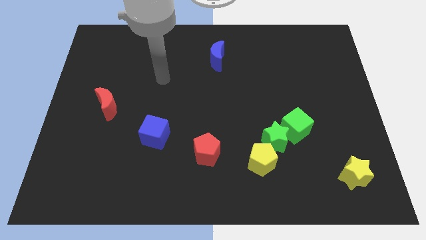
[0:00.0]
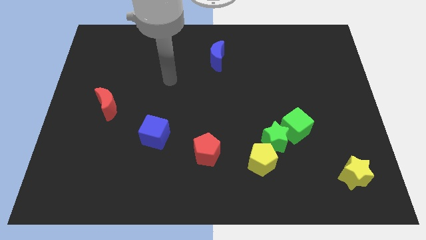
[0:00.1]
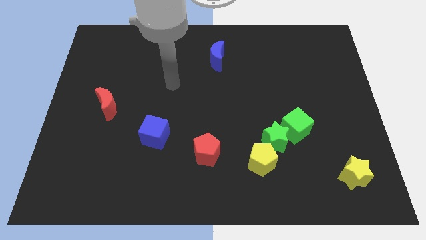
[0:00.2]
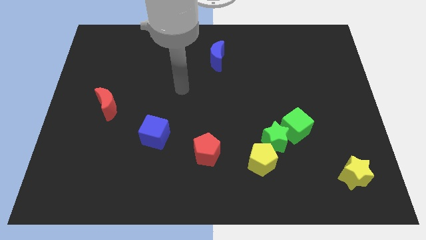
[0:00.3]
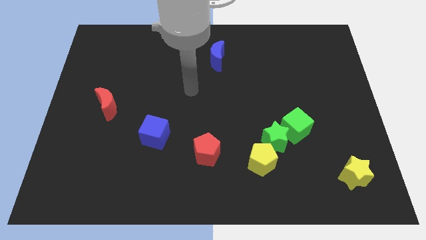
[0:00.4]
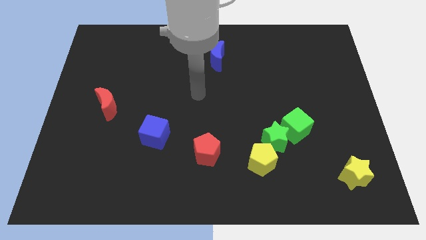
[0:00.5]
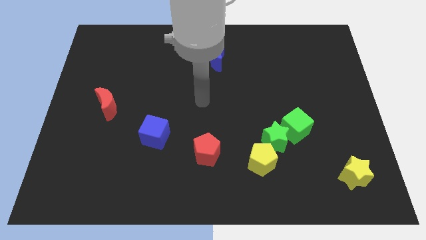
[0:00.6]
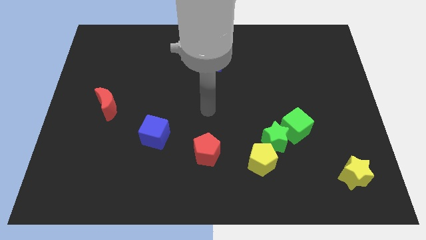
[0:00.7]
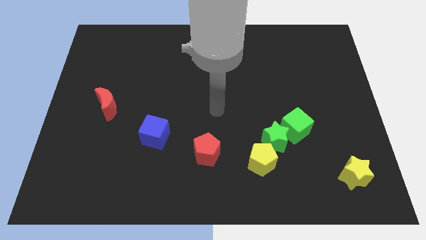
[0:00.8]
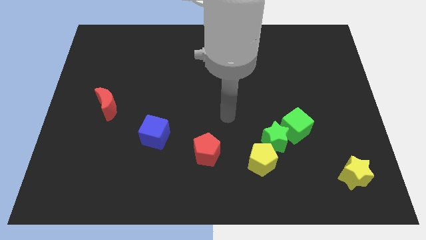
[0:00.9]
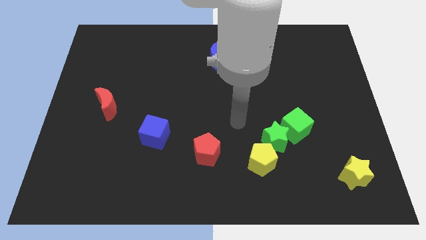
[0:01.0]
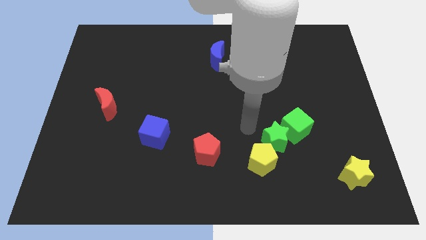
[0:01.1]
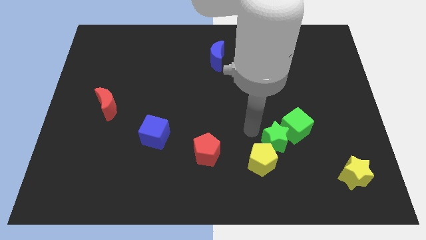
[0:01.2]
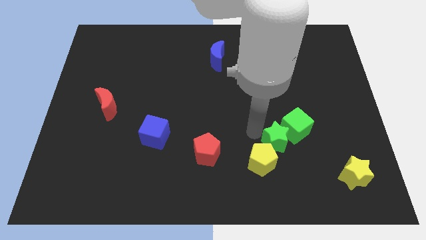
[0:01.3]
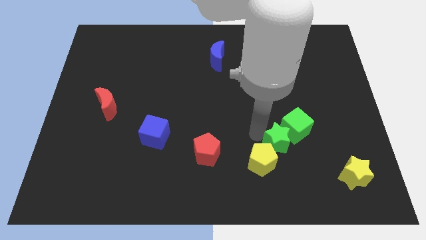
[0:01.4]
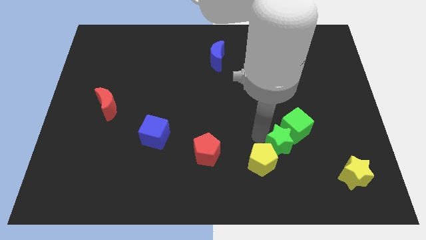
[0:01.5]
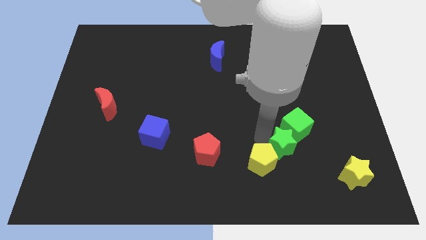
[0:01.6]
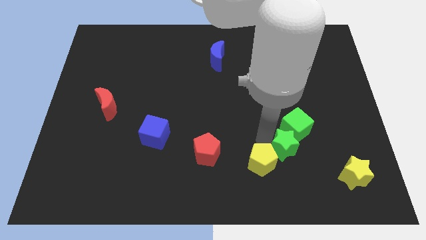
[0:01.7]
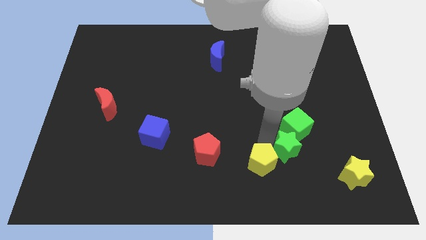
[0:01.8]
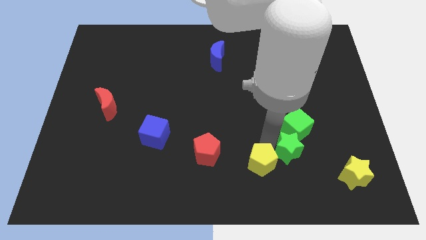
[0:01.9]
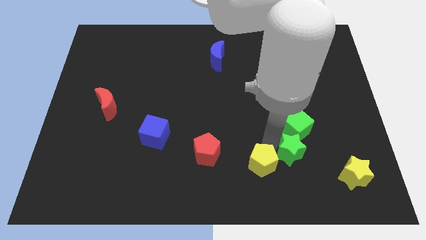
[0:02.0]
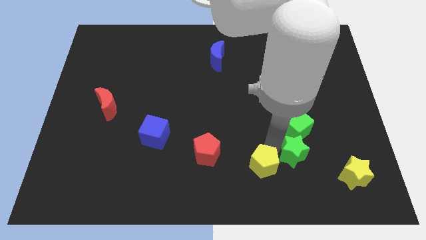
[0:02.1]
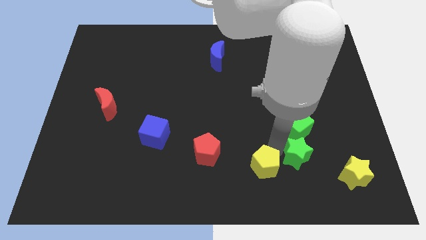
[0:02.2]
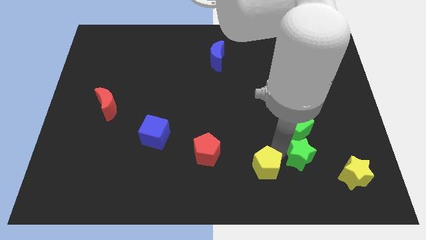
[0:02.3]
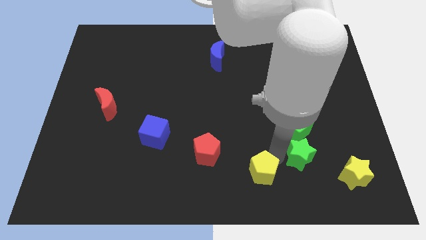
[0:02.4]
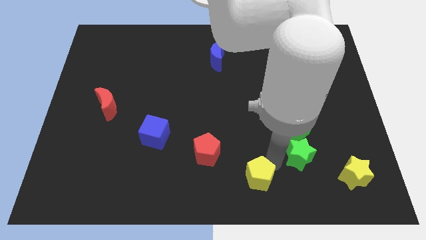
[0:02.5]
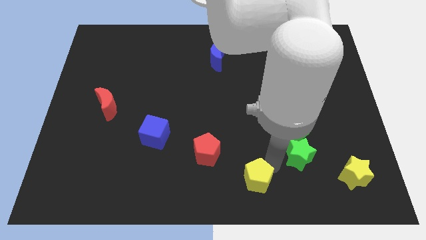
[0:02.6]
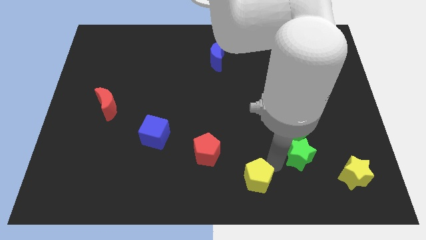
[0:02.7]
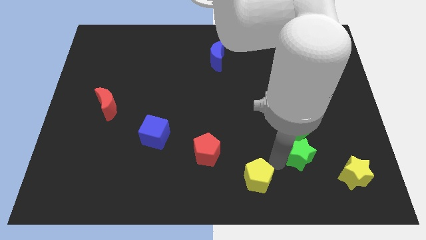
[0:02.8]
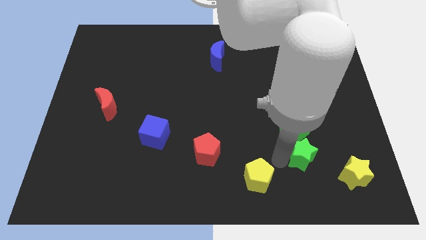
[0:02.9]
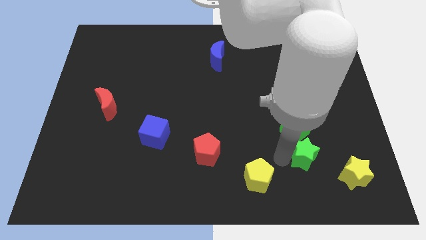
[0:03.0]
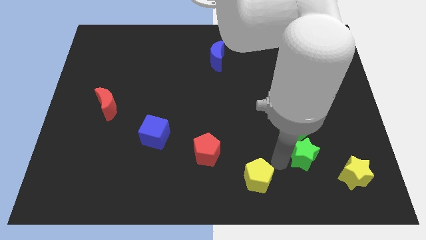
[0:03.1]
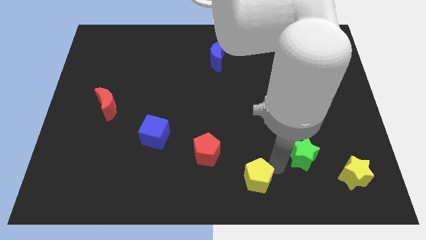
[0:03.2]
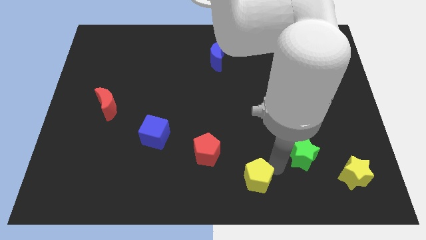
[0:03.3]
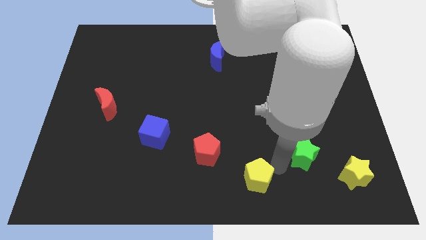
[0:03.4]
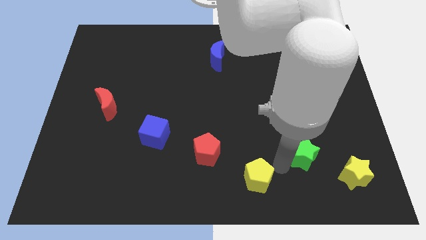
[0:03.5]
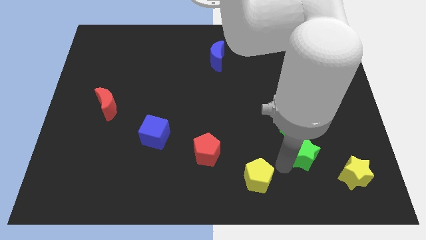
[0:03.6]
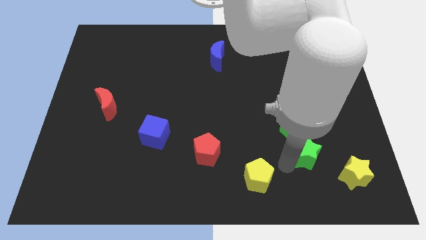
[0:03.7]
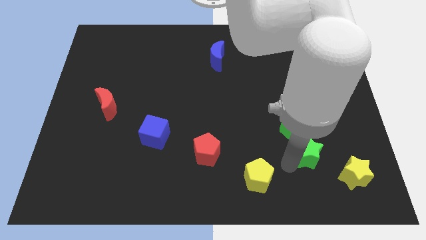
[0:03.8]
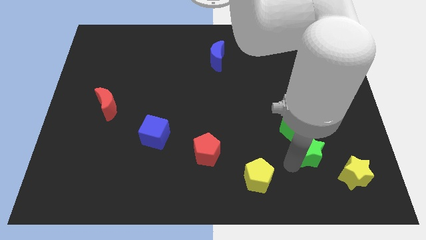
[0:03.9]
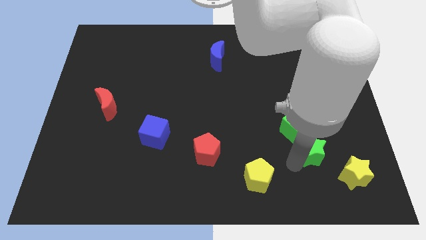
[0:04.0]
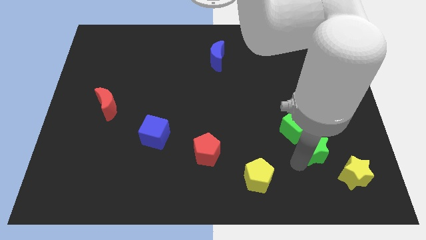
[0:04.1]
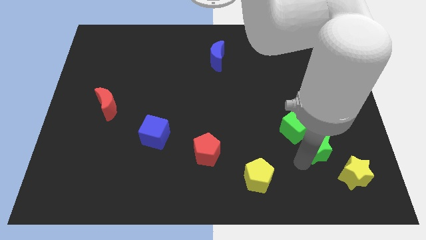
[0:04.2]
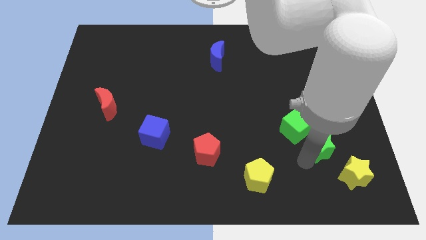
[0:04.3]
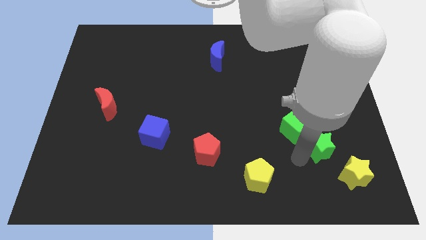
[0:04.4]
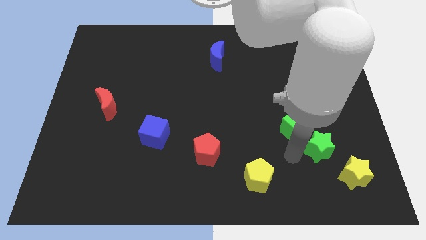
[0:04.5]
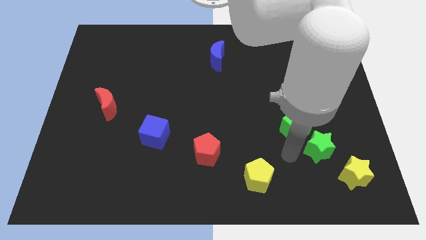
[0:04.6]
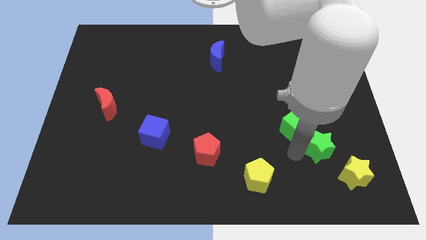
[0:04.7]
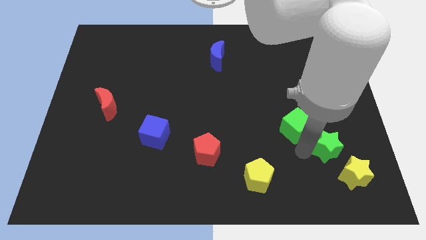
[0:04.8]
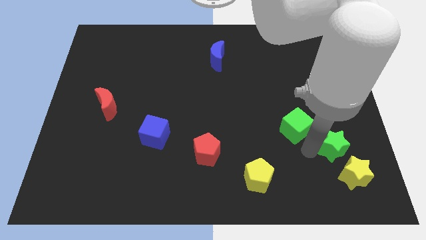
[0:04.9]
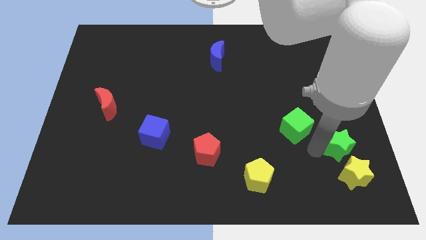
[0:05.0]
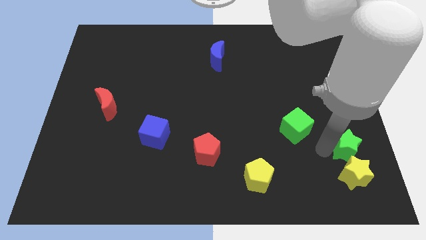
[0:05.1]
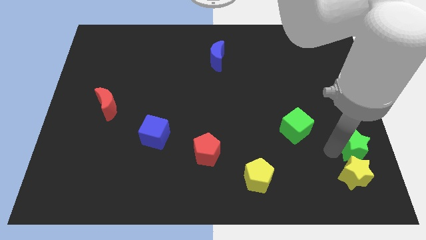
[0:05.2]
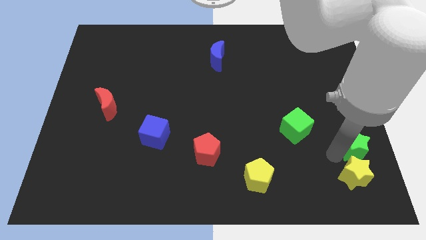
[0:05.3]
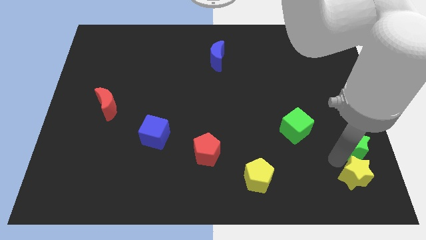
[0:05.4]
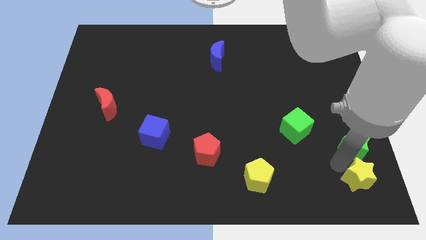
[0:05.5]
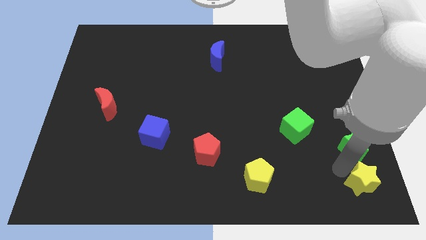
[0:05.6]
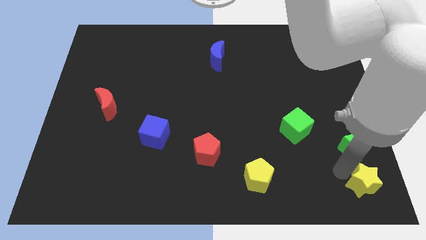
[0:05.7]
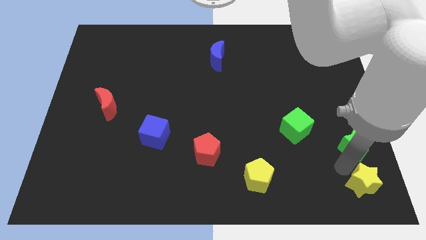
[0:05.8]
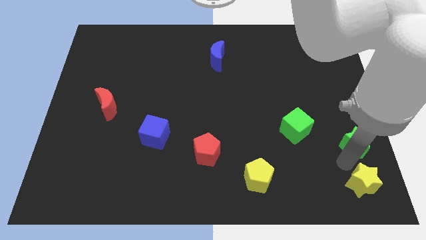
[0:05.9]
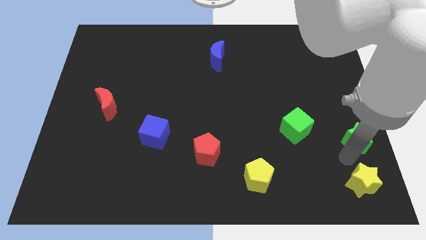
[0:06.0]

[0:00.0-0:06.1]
move the green star to the center right

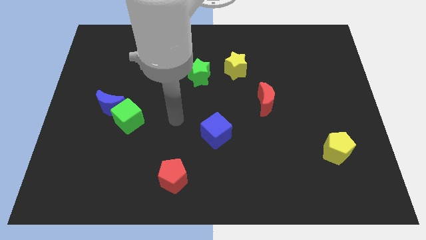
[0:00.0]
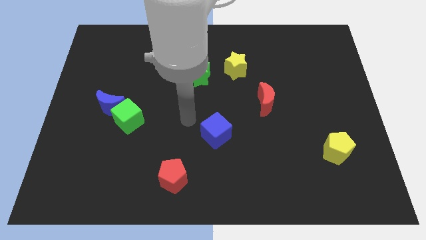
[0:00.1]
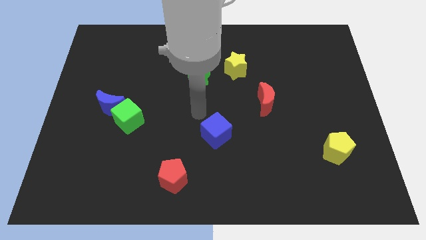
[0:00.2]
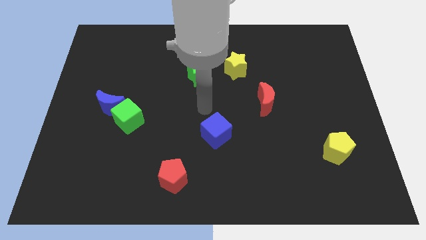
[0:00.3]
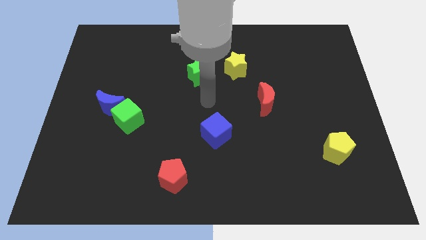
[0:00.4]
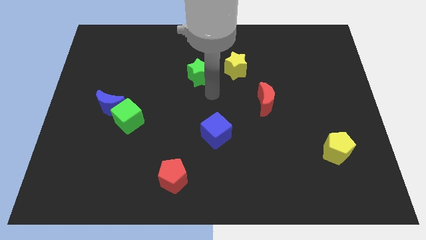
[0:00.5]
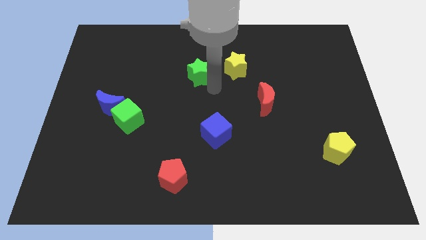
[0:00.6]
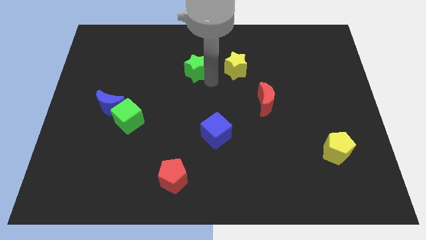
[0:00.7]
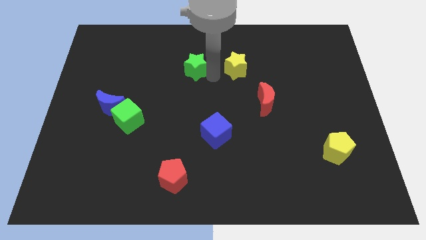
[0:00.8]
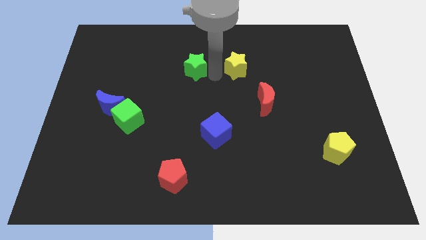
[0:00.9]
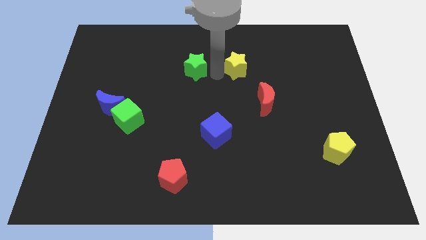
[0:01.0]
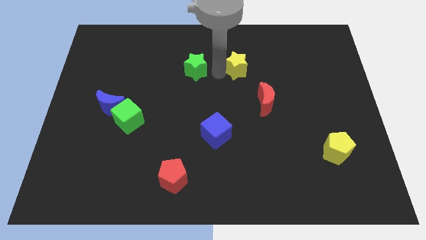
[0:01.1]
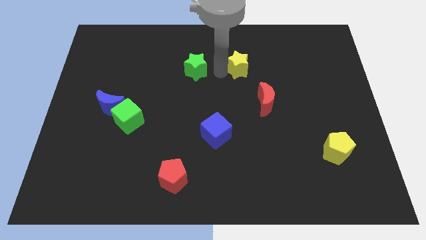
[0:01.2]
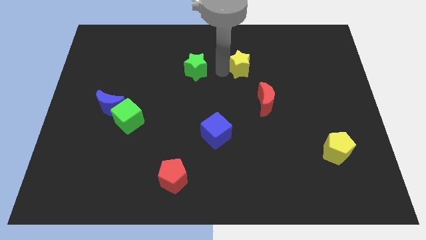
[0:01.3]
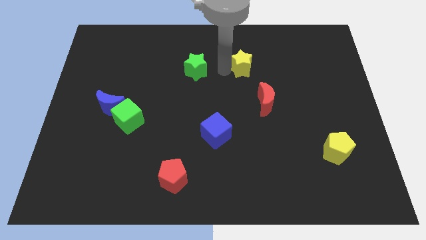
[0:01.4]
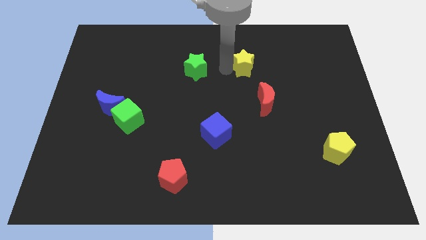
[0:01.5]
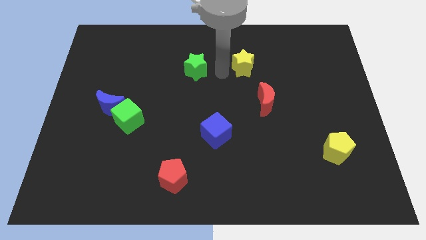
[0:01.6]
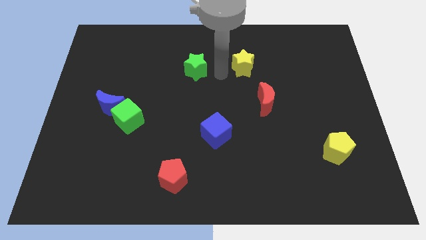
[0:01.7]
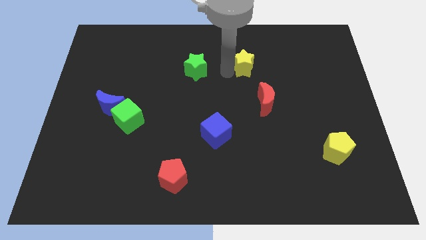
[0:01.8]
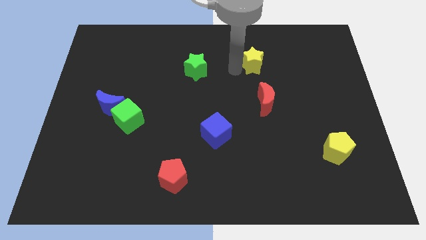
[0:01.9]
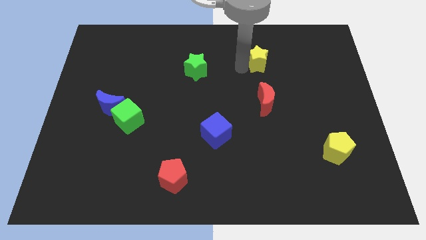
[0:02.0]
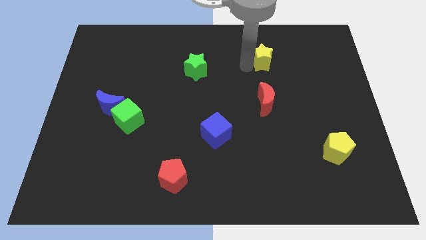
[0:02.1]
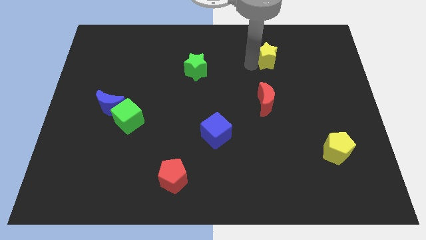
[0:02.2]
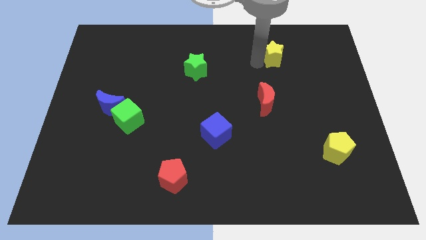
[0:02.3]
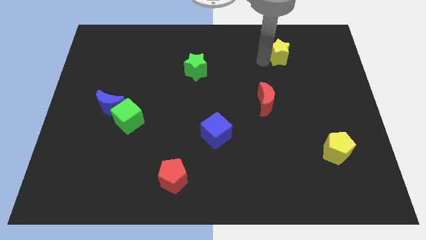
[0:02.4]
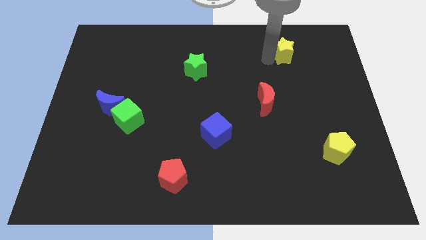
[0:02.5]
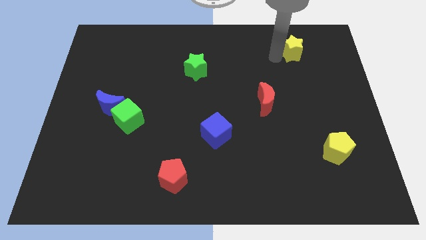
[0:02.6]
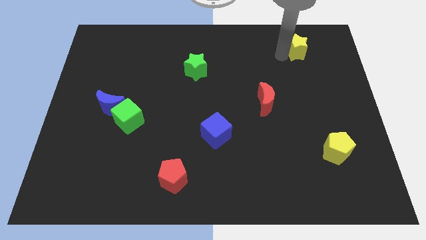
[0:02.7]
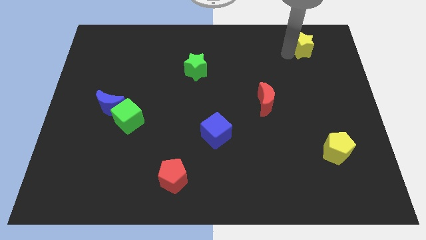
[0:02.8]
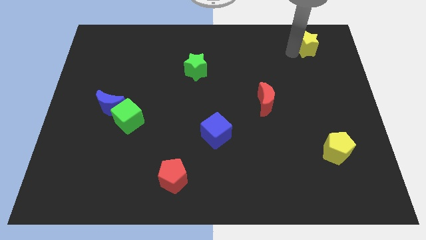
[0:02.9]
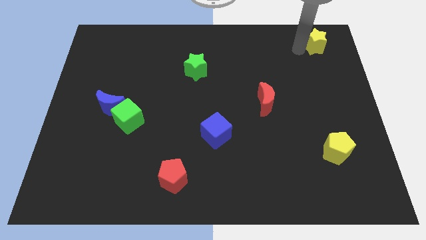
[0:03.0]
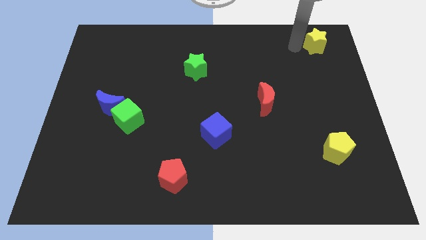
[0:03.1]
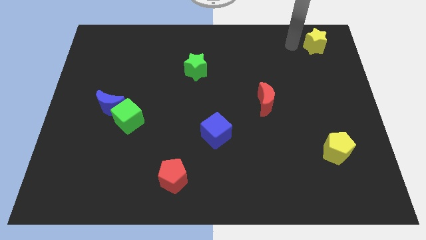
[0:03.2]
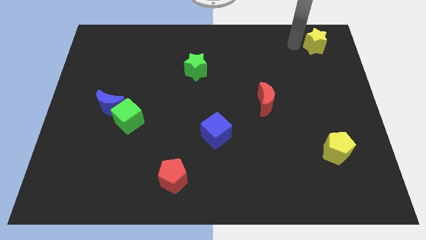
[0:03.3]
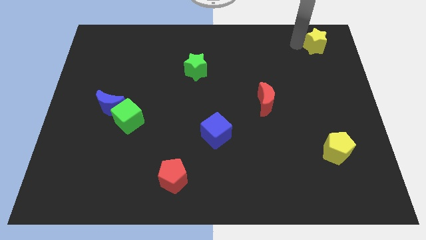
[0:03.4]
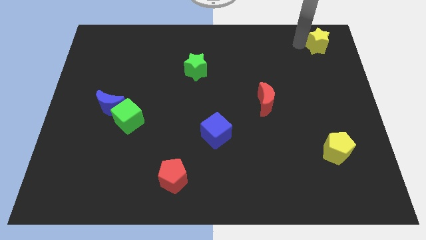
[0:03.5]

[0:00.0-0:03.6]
put the yellow star to the upper right corner
